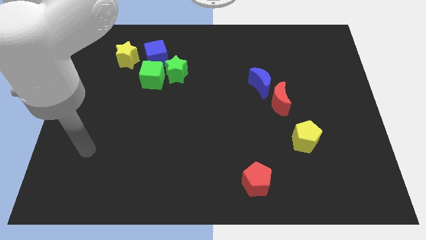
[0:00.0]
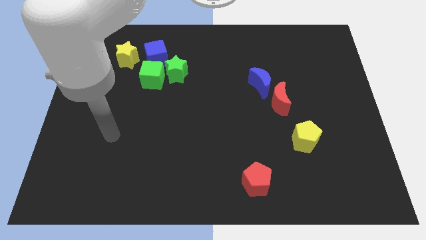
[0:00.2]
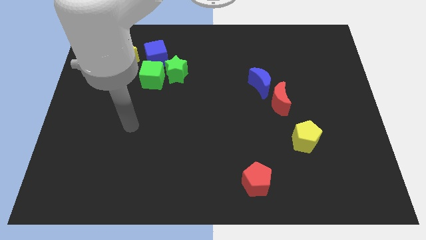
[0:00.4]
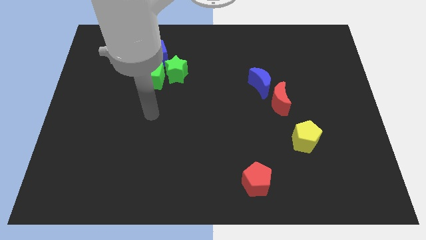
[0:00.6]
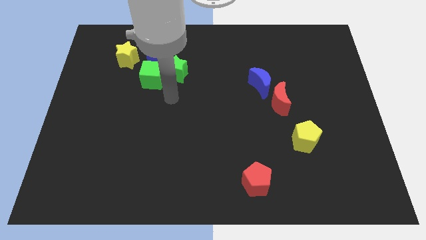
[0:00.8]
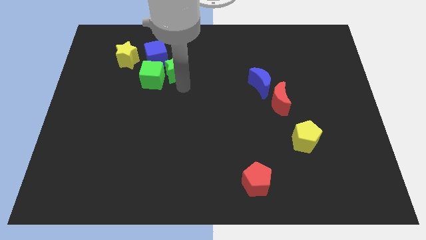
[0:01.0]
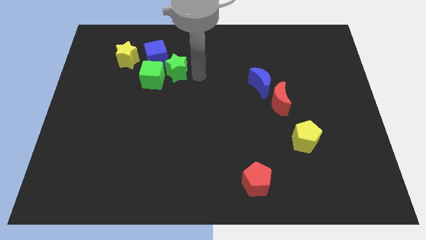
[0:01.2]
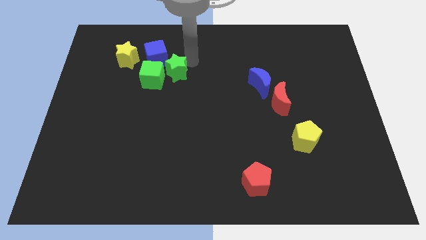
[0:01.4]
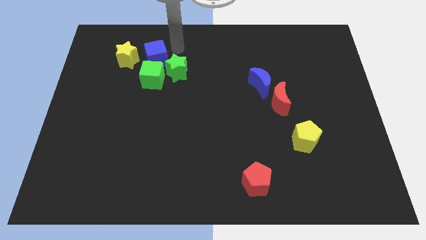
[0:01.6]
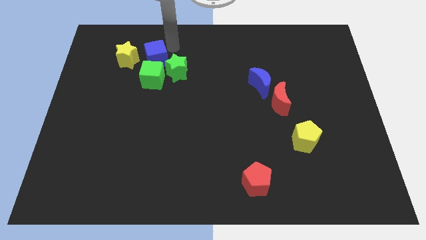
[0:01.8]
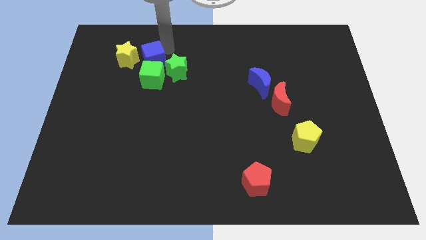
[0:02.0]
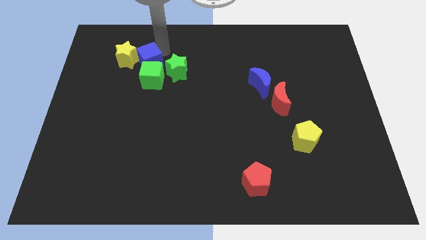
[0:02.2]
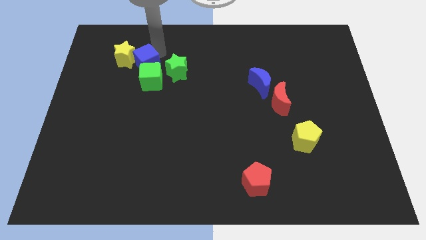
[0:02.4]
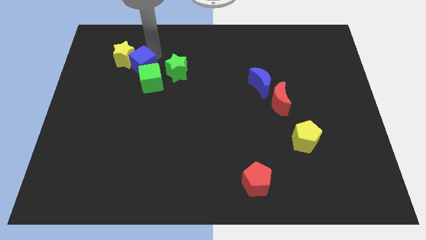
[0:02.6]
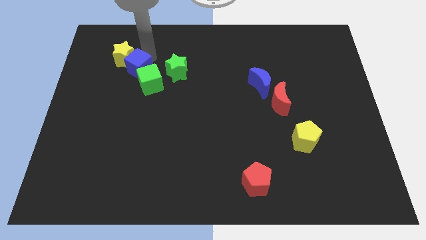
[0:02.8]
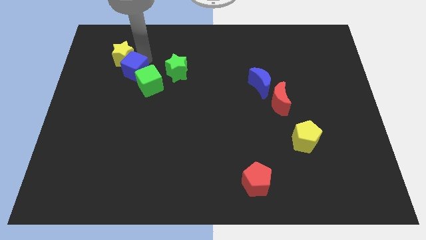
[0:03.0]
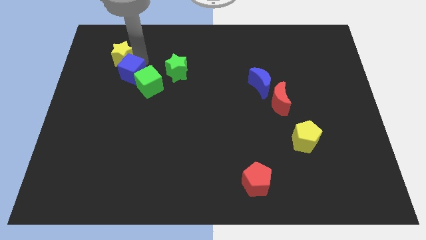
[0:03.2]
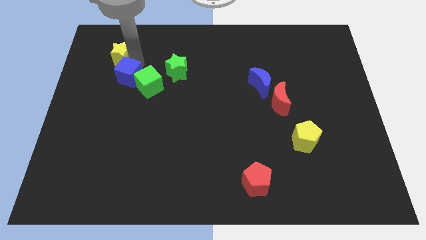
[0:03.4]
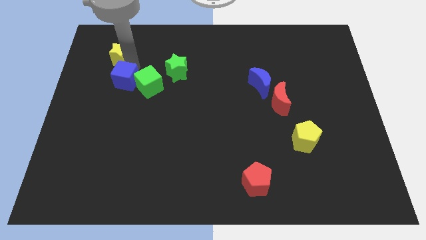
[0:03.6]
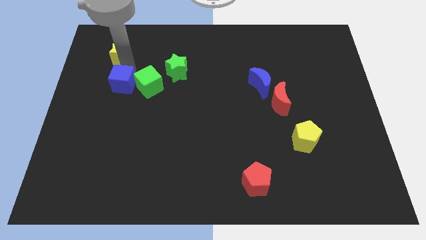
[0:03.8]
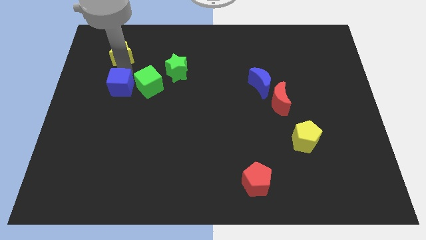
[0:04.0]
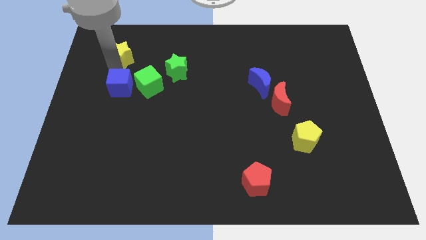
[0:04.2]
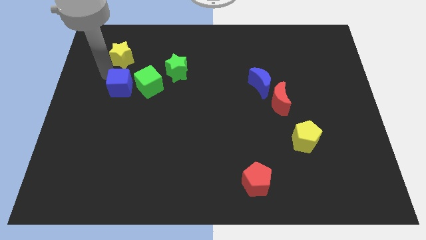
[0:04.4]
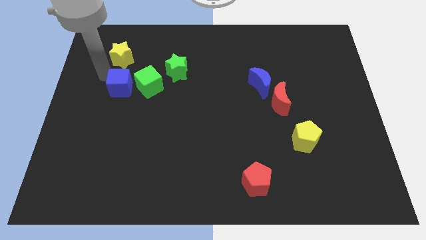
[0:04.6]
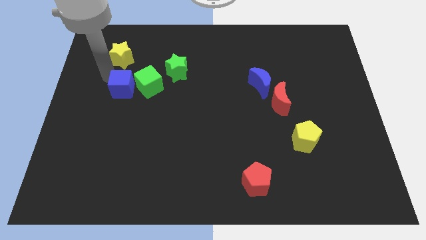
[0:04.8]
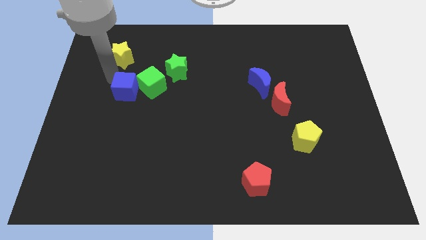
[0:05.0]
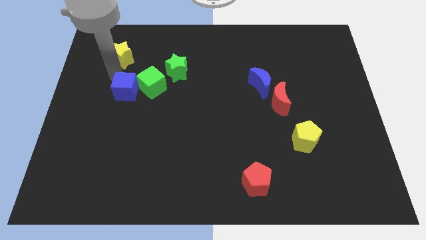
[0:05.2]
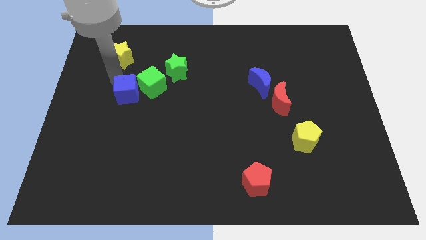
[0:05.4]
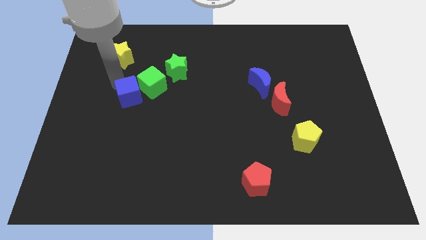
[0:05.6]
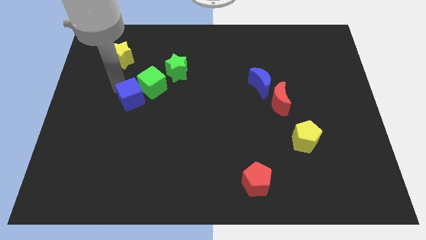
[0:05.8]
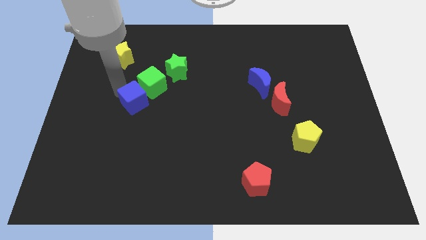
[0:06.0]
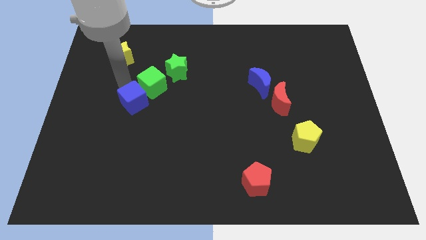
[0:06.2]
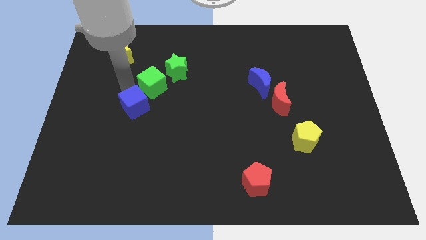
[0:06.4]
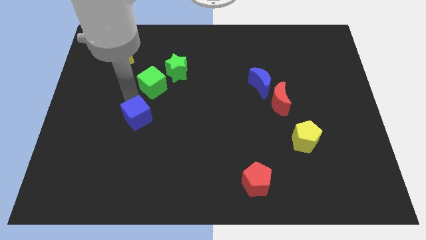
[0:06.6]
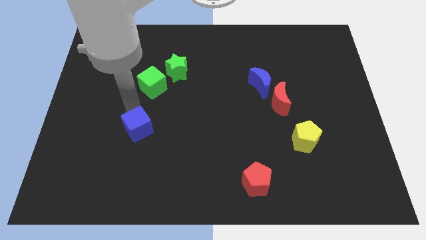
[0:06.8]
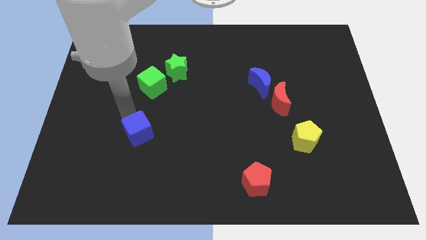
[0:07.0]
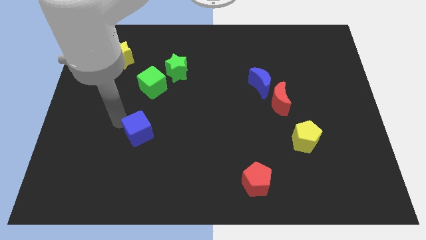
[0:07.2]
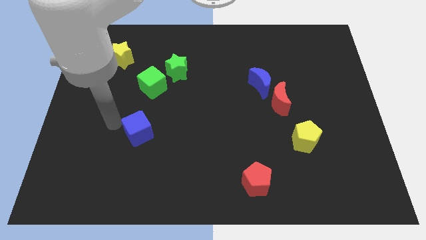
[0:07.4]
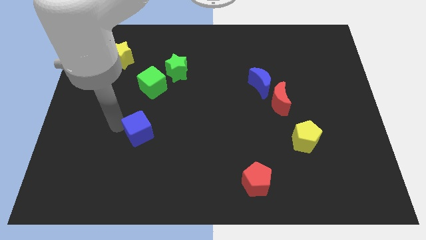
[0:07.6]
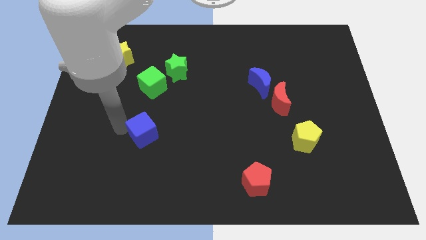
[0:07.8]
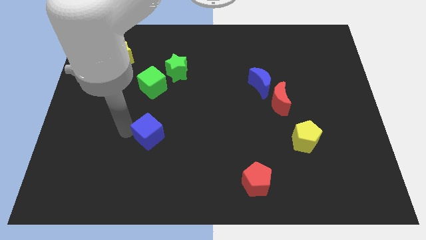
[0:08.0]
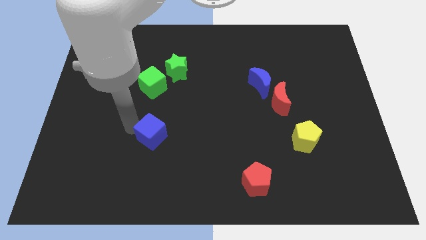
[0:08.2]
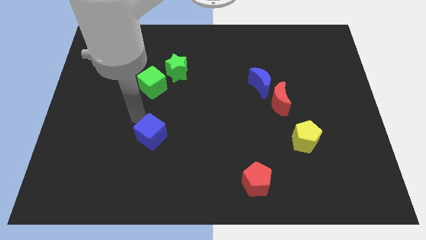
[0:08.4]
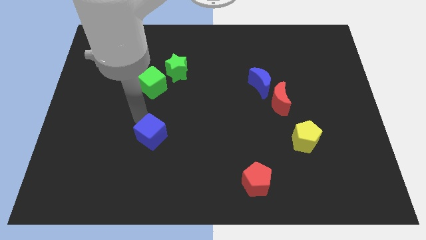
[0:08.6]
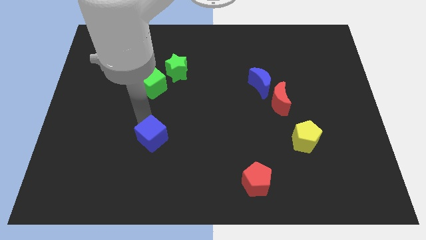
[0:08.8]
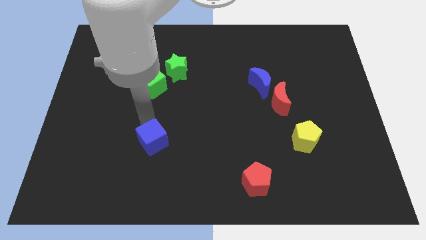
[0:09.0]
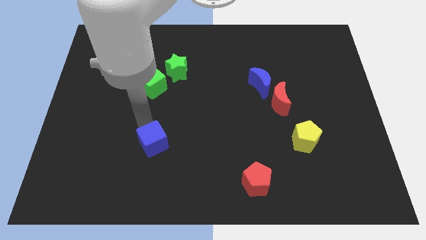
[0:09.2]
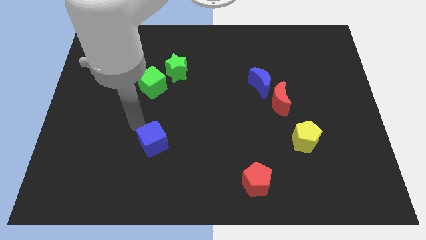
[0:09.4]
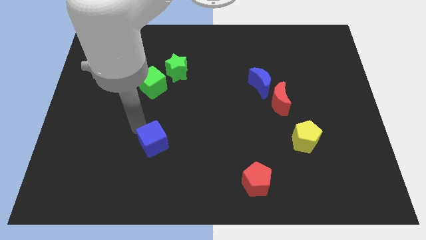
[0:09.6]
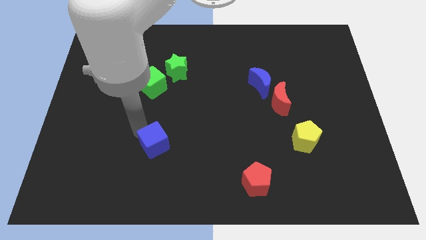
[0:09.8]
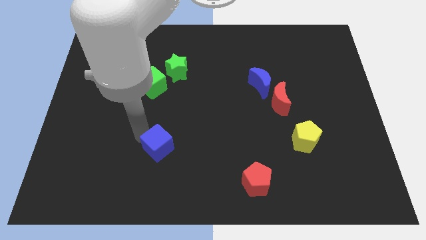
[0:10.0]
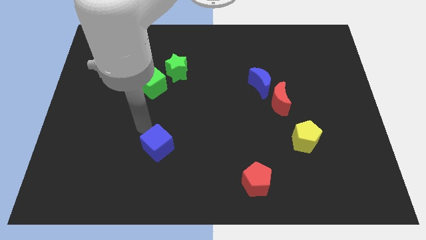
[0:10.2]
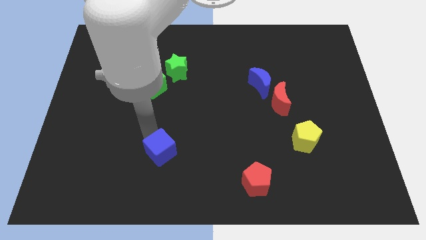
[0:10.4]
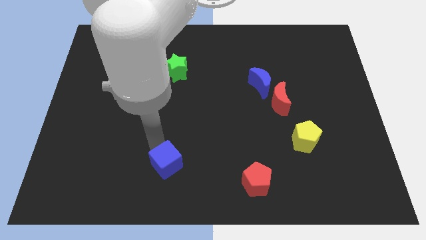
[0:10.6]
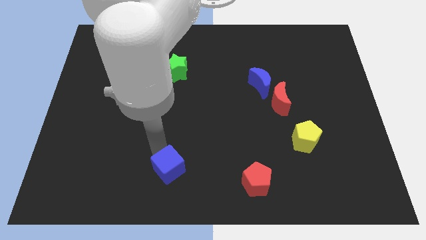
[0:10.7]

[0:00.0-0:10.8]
push the blue cube to the bottom side

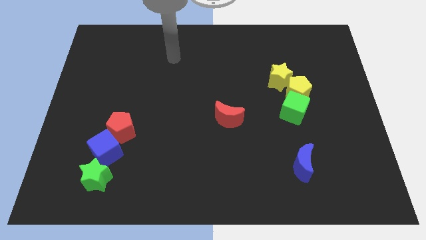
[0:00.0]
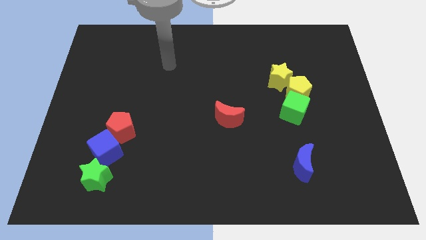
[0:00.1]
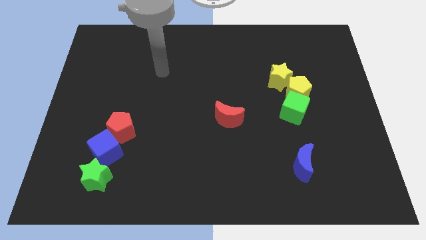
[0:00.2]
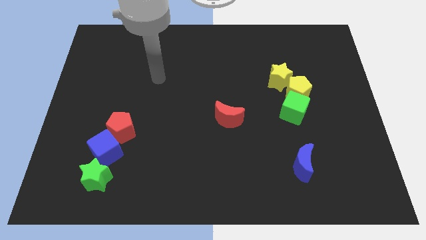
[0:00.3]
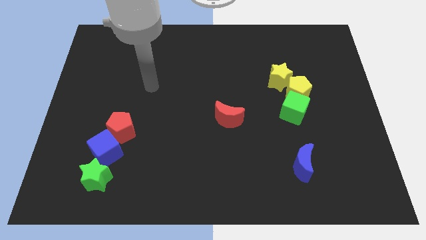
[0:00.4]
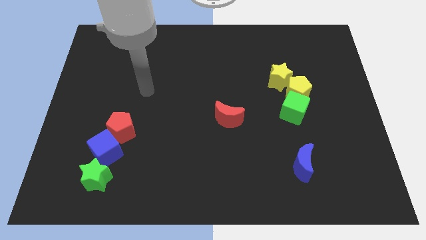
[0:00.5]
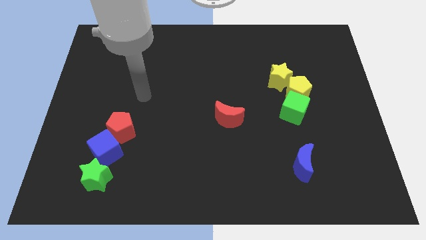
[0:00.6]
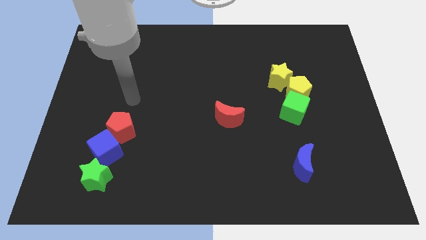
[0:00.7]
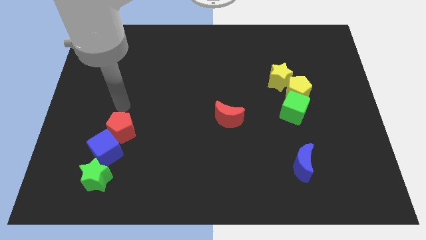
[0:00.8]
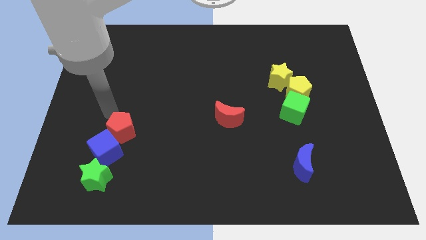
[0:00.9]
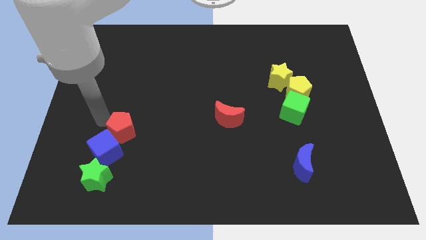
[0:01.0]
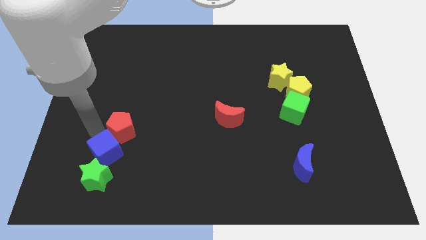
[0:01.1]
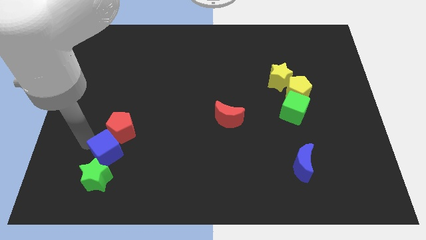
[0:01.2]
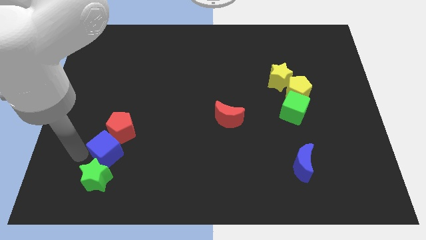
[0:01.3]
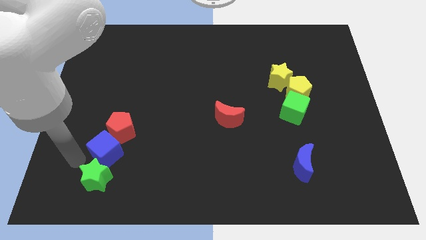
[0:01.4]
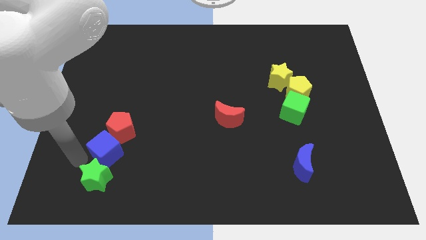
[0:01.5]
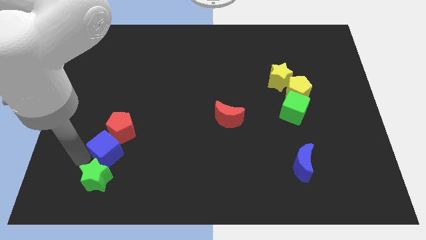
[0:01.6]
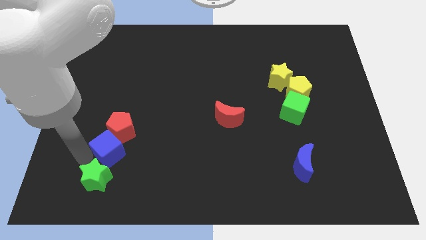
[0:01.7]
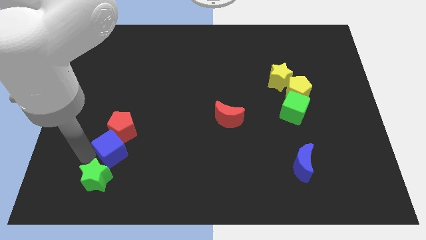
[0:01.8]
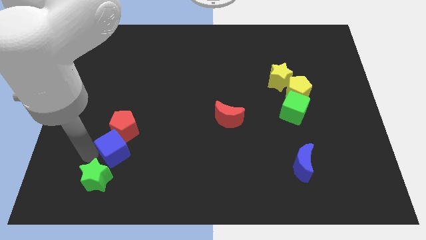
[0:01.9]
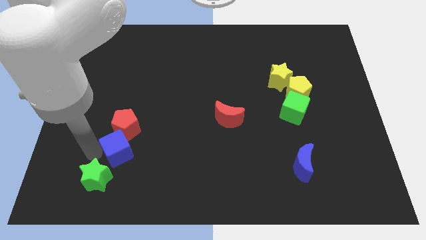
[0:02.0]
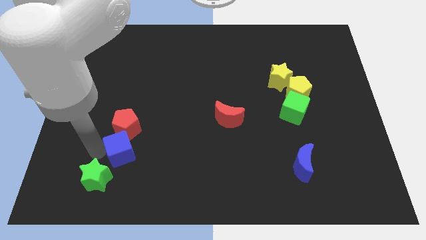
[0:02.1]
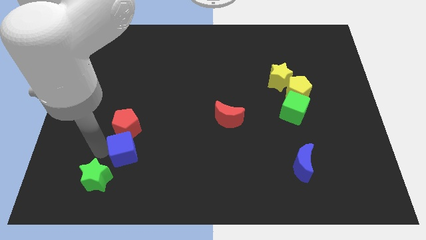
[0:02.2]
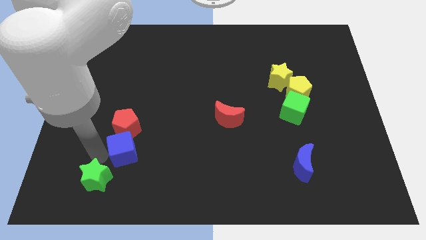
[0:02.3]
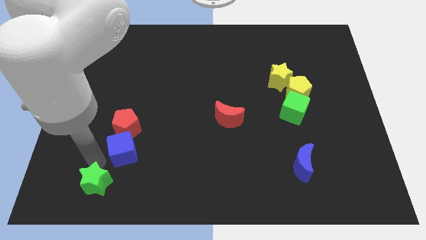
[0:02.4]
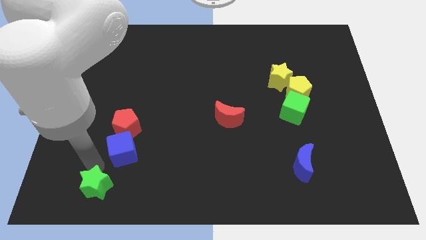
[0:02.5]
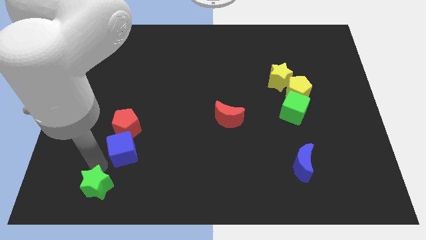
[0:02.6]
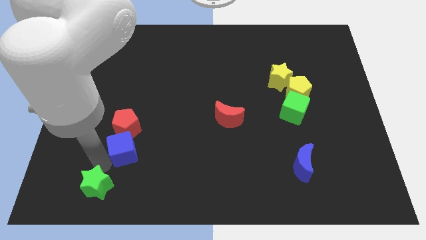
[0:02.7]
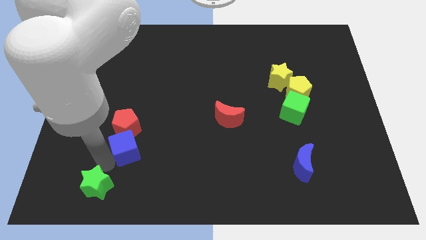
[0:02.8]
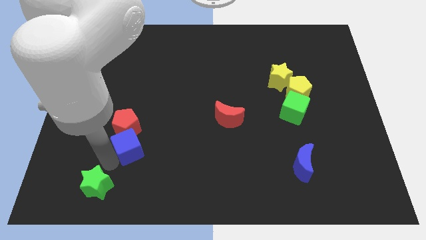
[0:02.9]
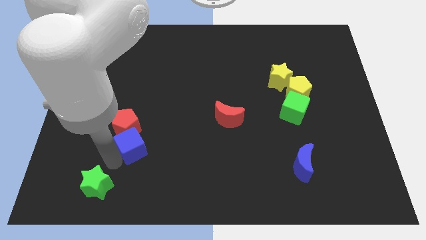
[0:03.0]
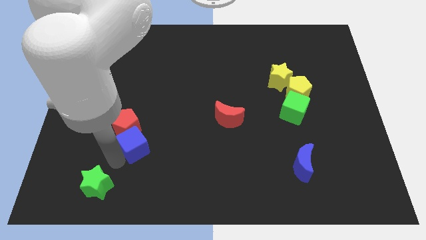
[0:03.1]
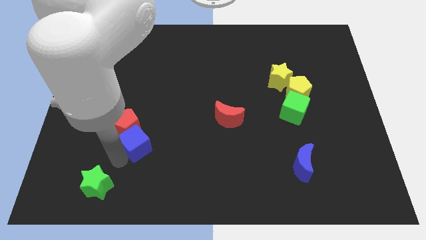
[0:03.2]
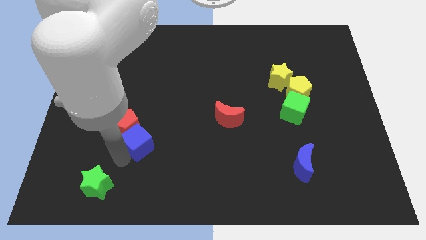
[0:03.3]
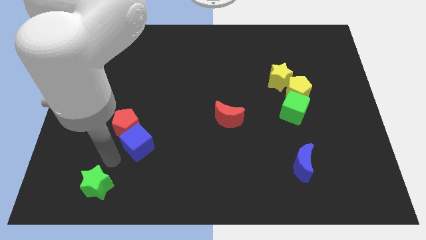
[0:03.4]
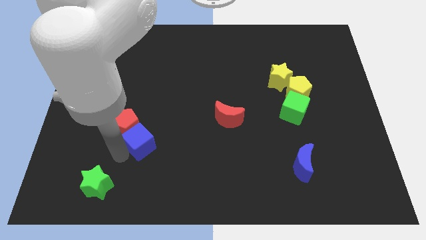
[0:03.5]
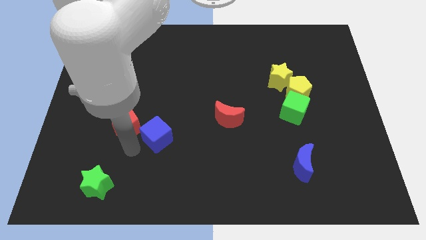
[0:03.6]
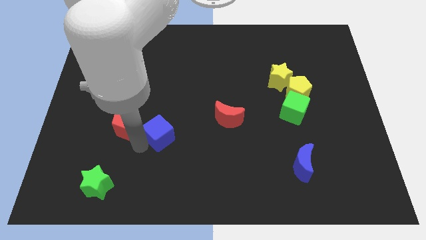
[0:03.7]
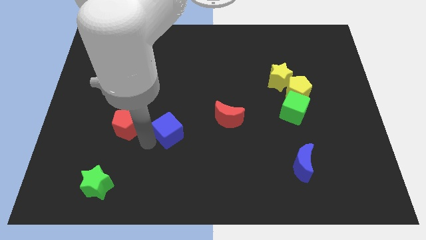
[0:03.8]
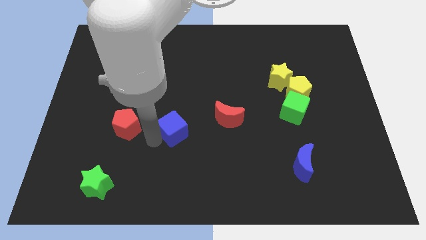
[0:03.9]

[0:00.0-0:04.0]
put the blue cube to the middle of the board
